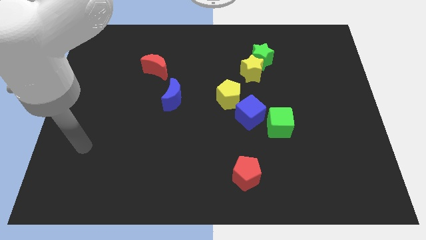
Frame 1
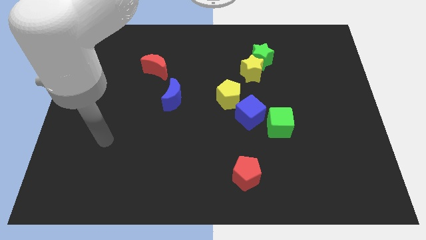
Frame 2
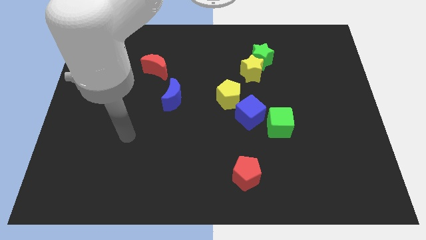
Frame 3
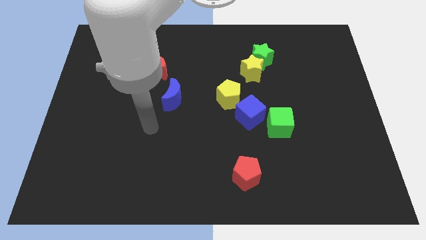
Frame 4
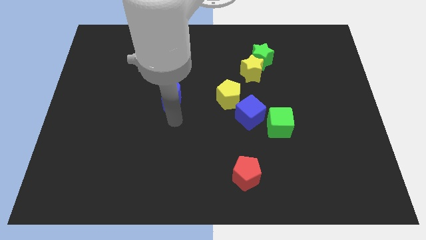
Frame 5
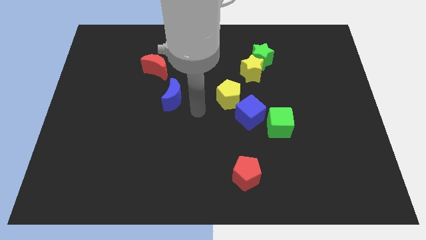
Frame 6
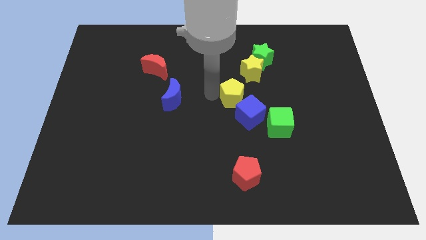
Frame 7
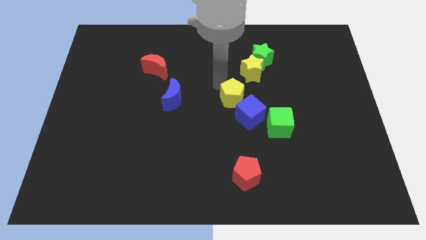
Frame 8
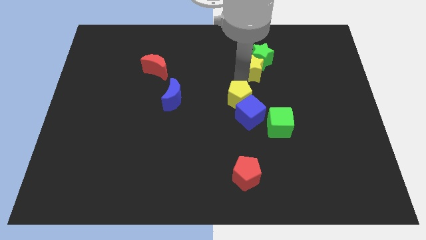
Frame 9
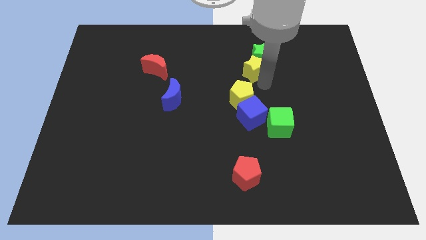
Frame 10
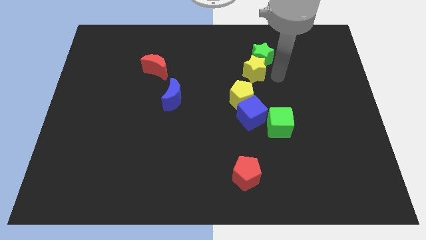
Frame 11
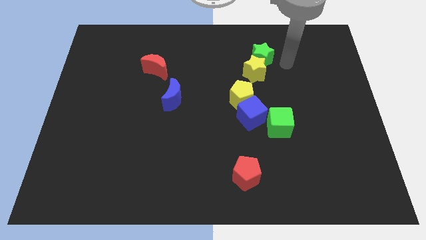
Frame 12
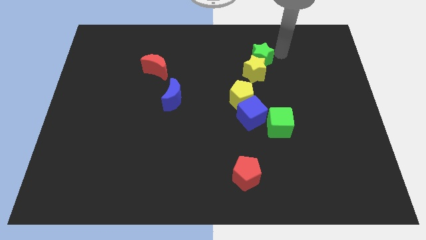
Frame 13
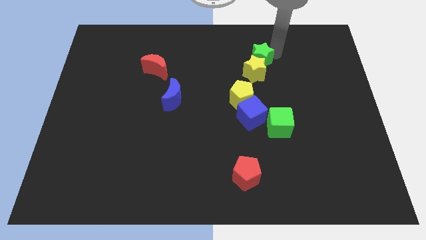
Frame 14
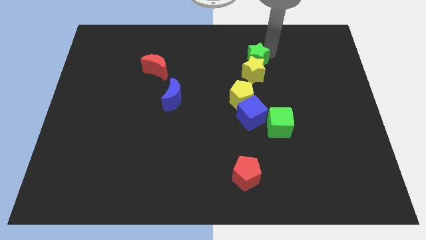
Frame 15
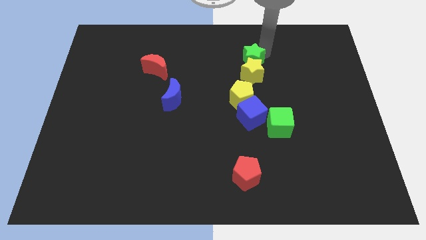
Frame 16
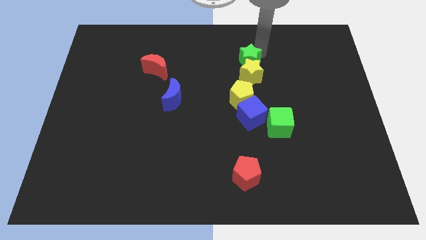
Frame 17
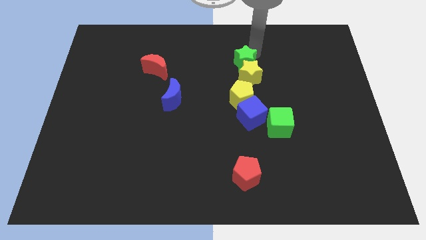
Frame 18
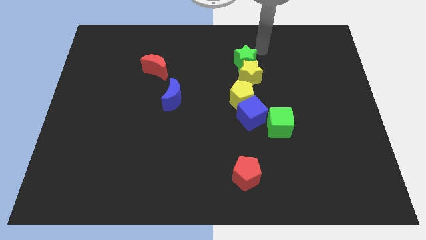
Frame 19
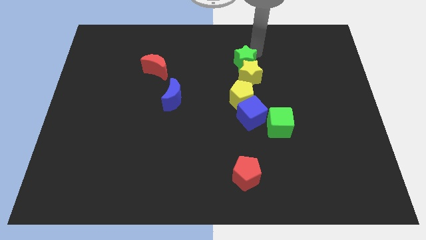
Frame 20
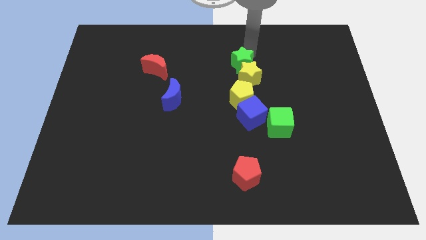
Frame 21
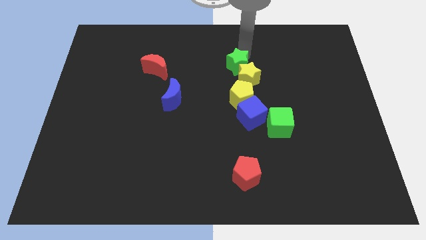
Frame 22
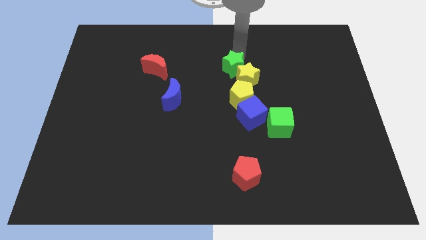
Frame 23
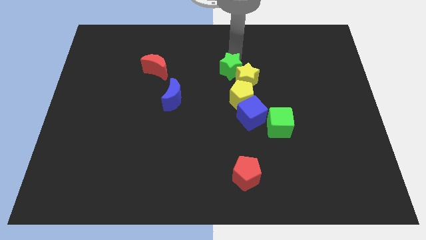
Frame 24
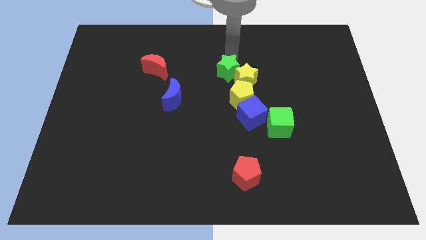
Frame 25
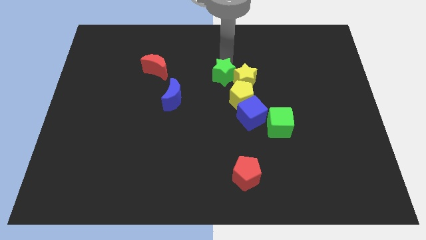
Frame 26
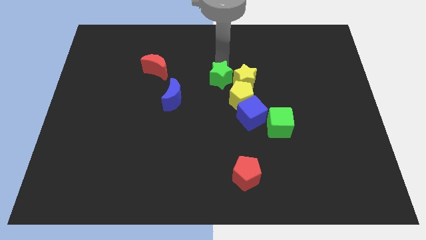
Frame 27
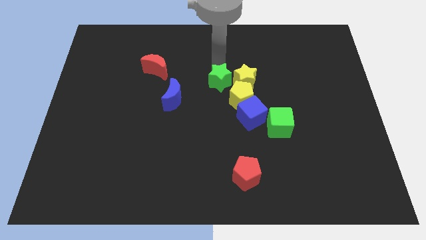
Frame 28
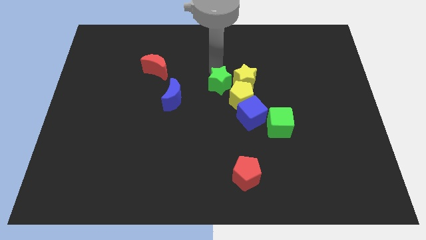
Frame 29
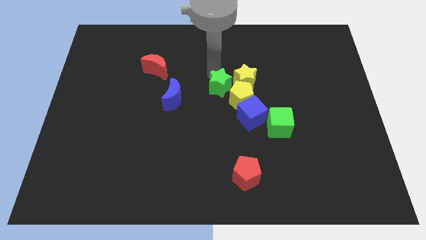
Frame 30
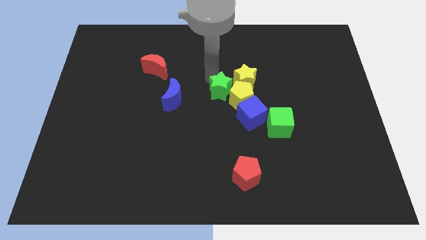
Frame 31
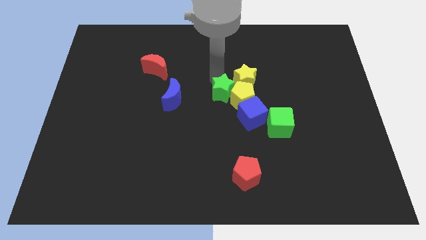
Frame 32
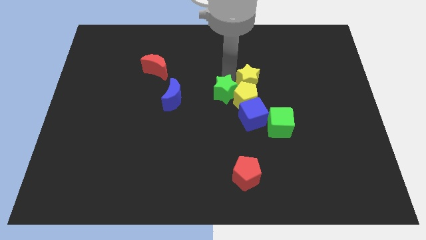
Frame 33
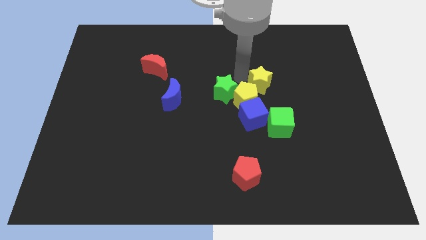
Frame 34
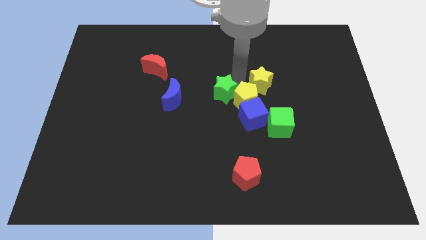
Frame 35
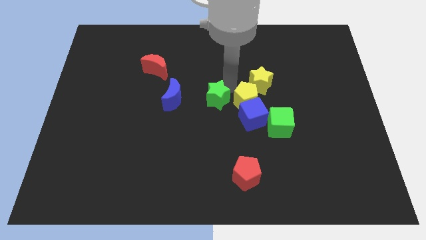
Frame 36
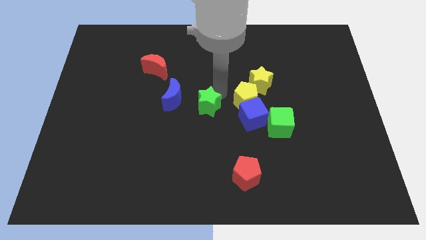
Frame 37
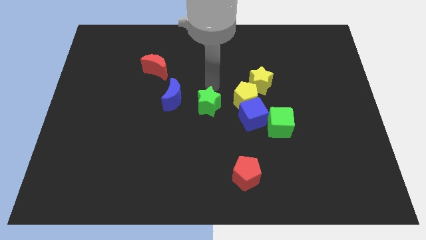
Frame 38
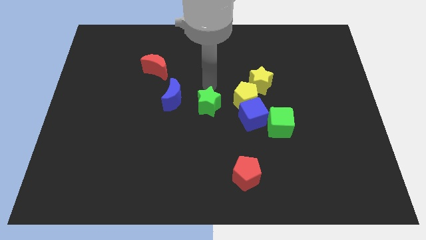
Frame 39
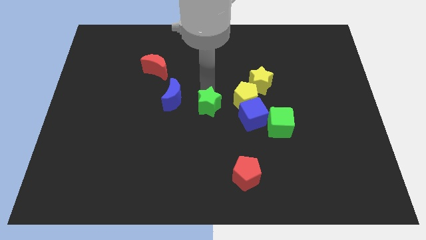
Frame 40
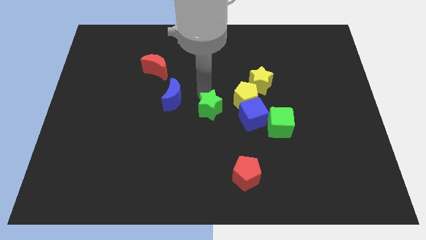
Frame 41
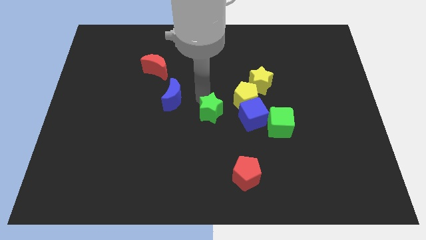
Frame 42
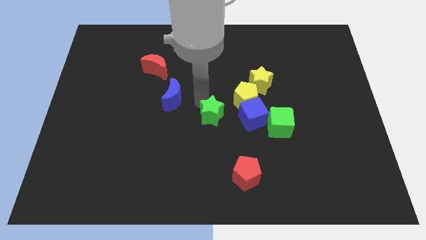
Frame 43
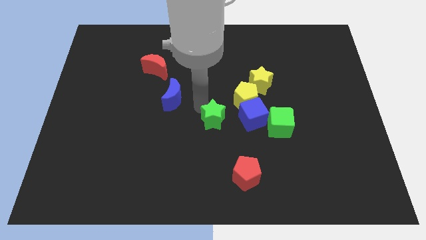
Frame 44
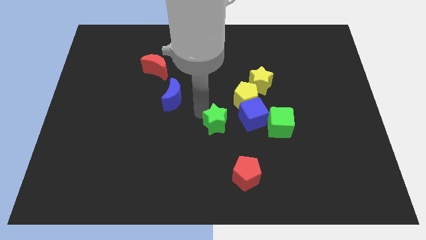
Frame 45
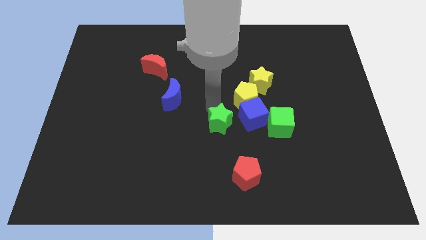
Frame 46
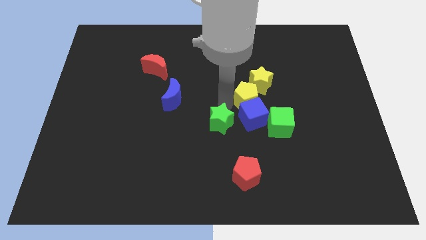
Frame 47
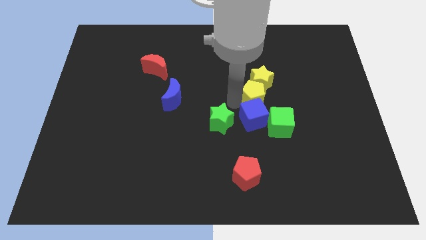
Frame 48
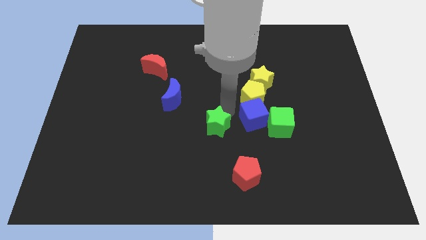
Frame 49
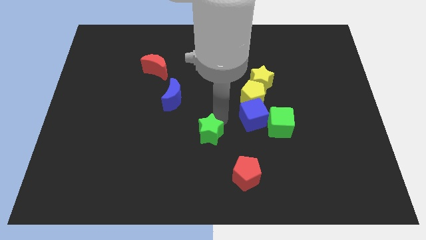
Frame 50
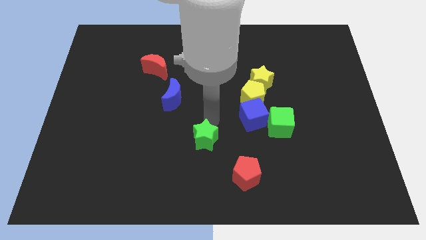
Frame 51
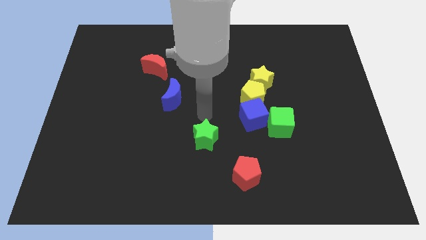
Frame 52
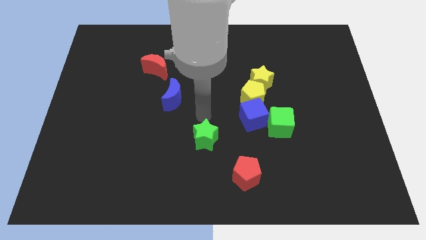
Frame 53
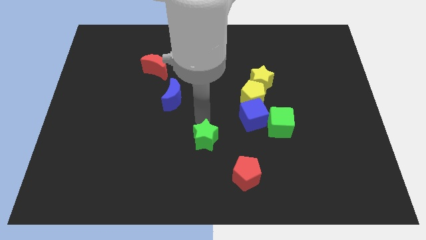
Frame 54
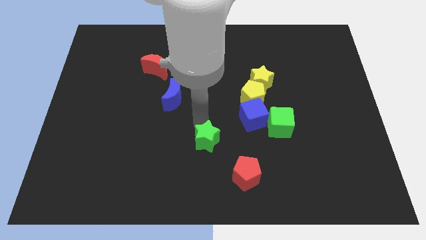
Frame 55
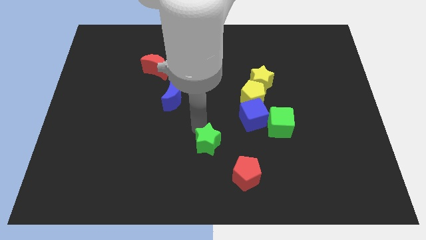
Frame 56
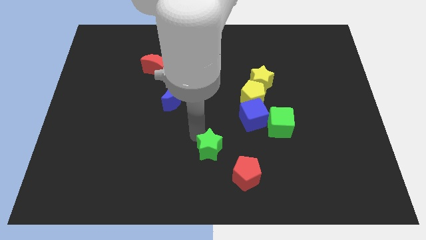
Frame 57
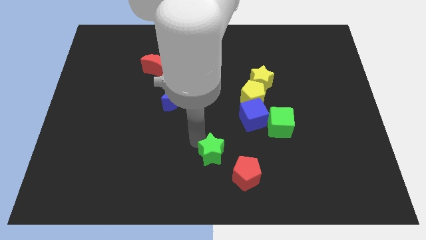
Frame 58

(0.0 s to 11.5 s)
slide the green star to the bottom side

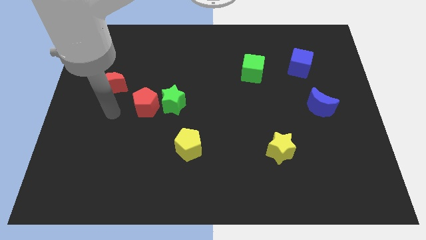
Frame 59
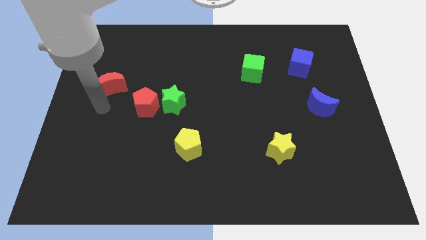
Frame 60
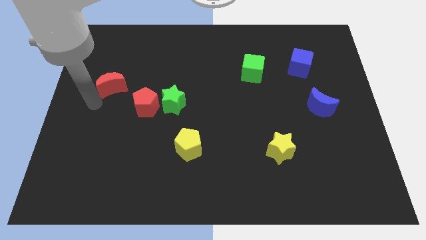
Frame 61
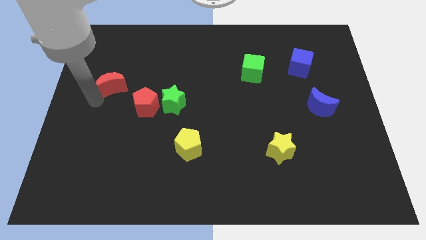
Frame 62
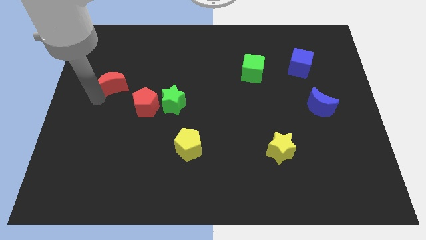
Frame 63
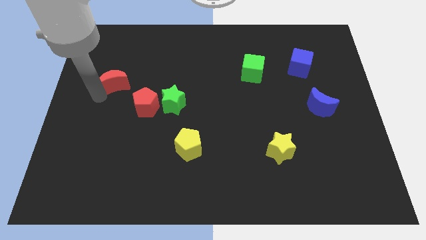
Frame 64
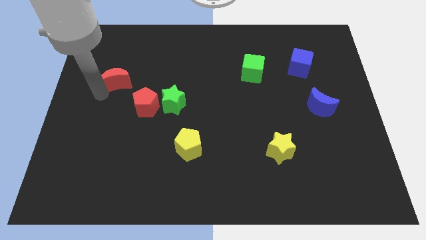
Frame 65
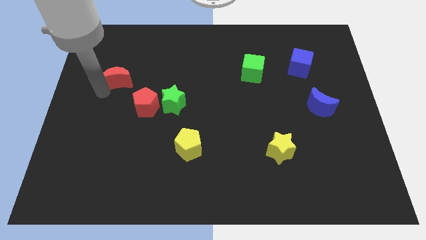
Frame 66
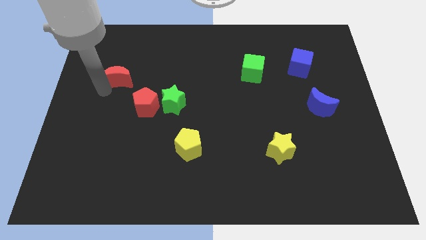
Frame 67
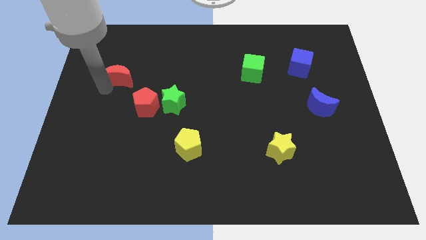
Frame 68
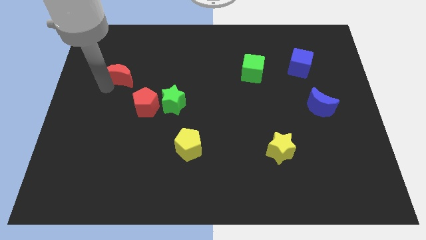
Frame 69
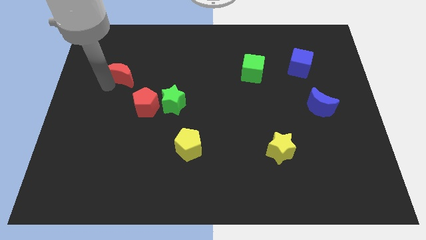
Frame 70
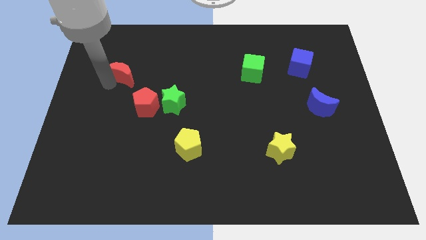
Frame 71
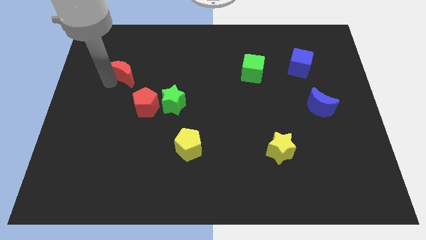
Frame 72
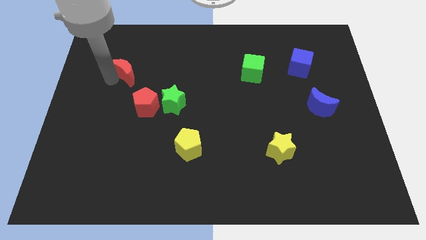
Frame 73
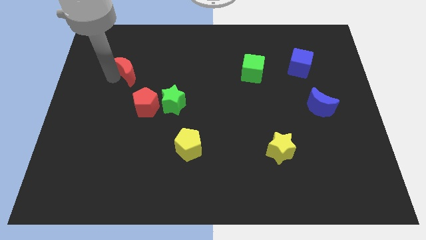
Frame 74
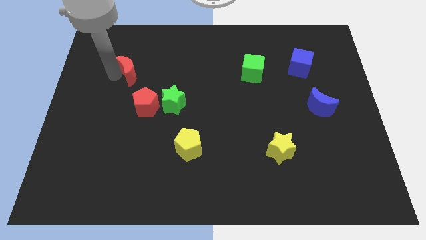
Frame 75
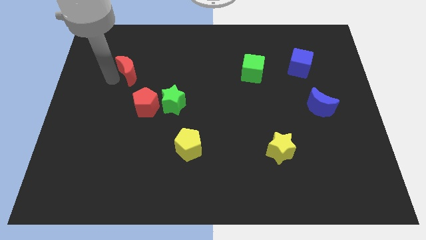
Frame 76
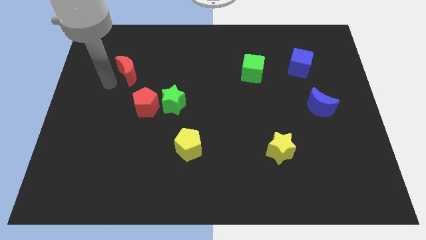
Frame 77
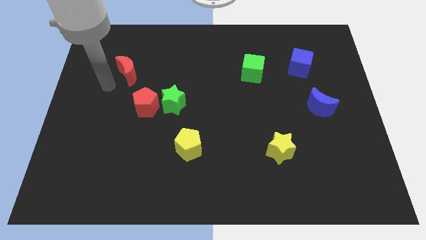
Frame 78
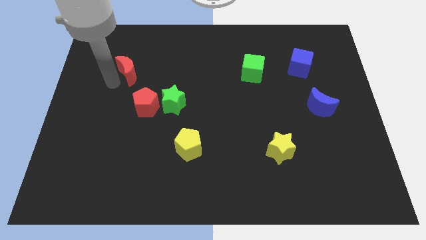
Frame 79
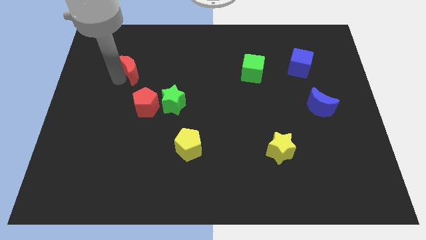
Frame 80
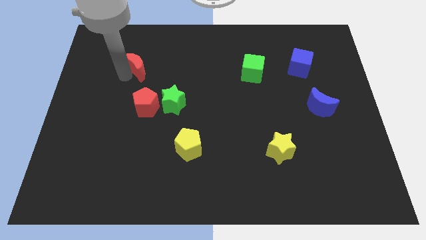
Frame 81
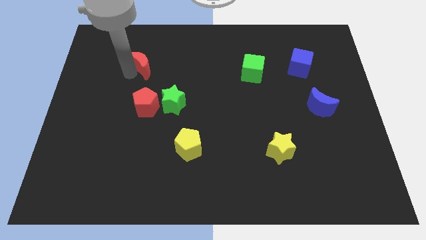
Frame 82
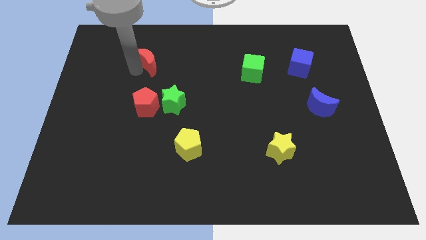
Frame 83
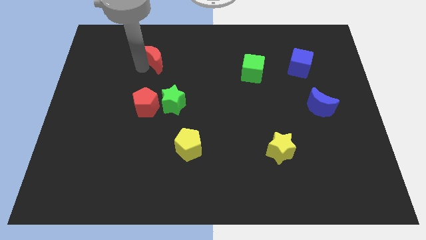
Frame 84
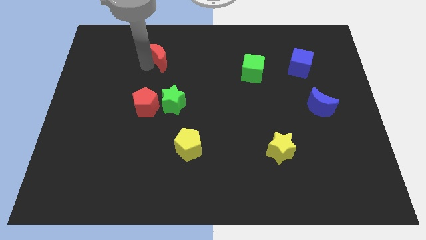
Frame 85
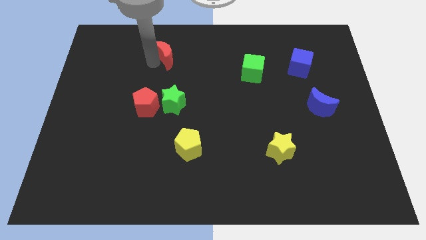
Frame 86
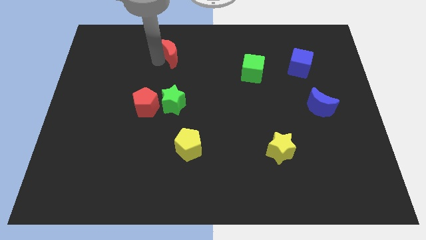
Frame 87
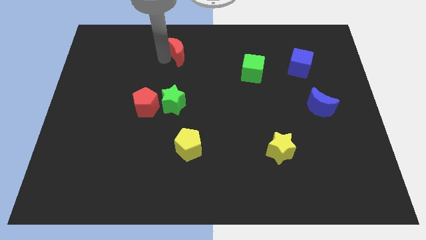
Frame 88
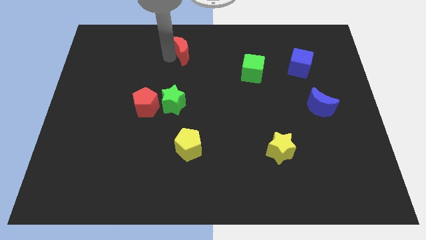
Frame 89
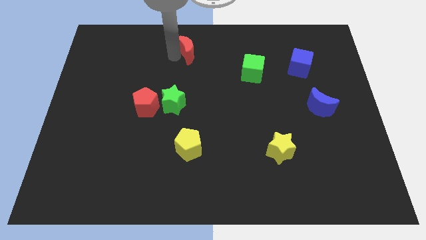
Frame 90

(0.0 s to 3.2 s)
slide the red moon to the top side
